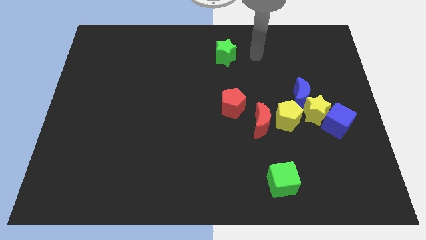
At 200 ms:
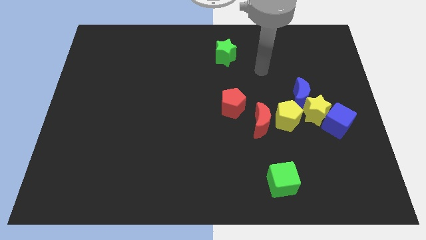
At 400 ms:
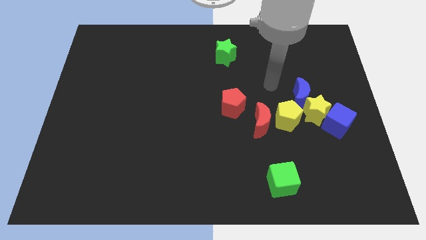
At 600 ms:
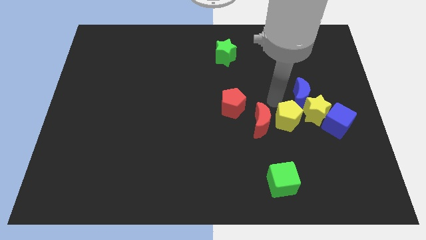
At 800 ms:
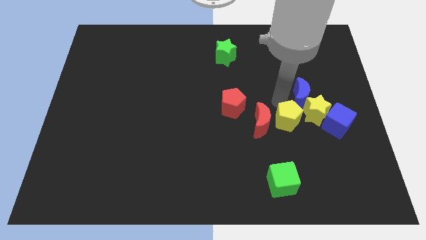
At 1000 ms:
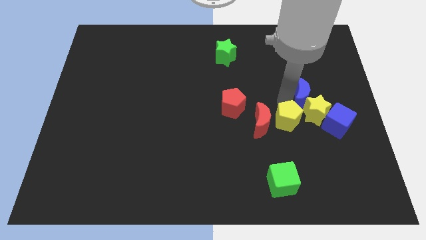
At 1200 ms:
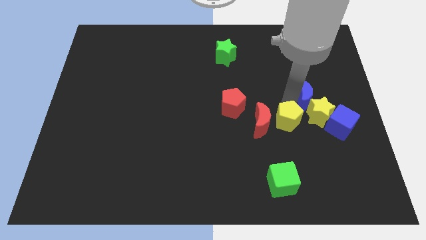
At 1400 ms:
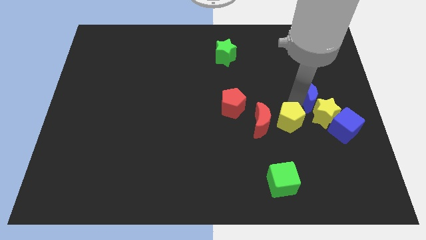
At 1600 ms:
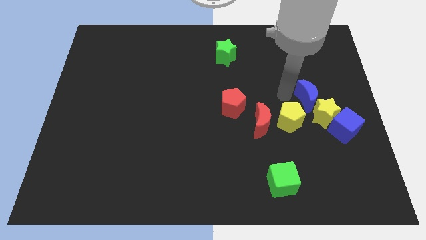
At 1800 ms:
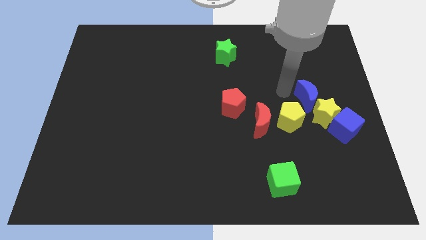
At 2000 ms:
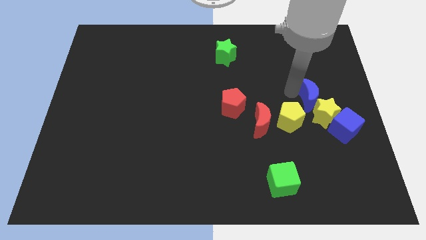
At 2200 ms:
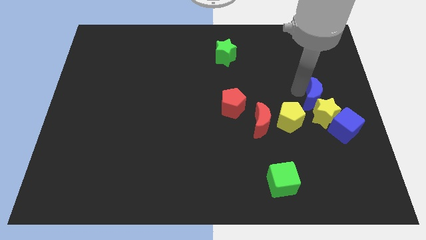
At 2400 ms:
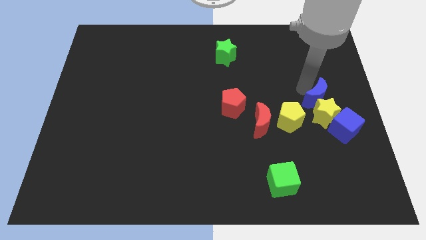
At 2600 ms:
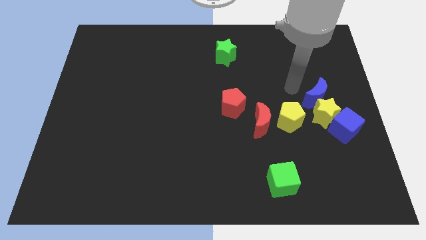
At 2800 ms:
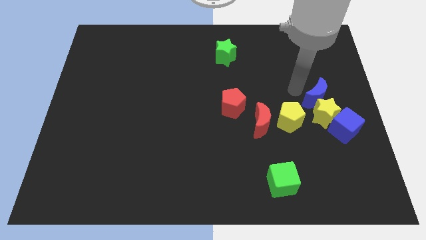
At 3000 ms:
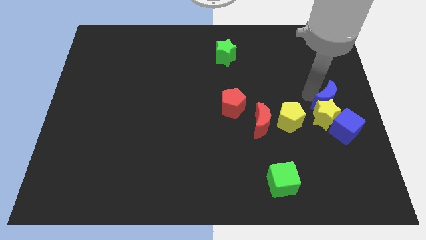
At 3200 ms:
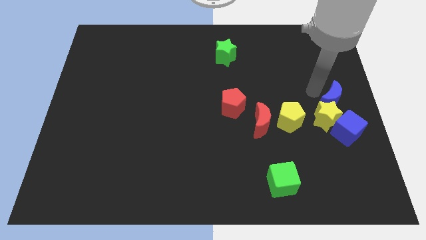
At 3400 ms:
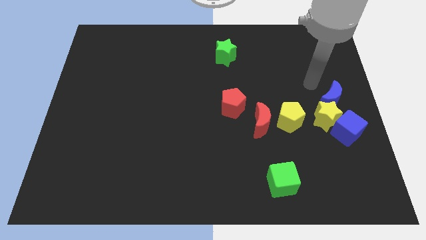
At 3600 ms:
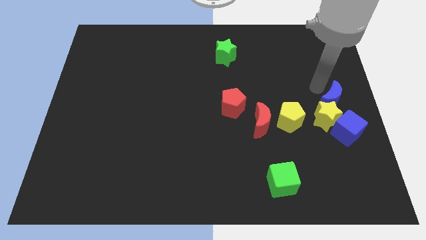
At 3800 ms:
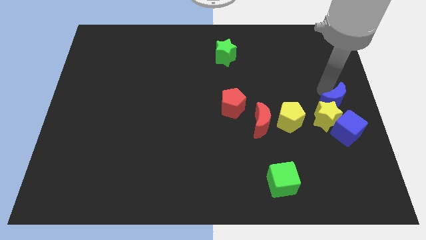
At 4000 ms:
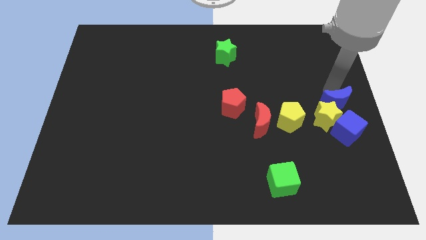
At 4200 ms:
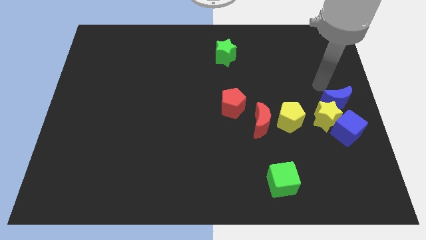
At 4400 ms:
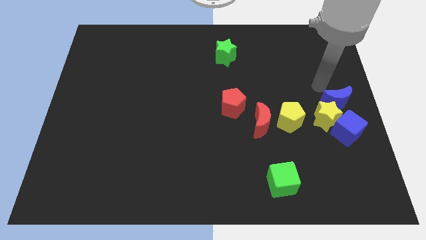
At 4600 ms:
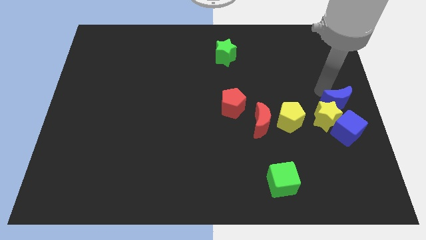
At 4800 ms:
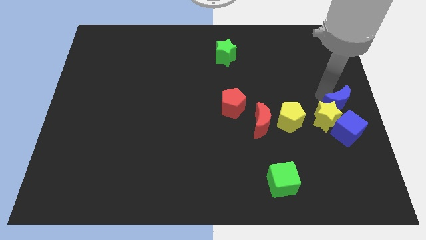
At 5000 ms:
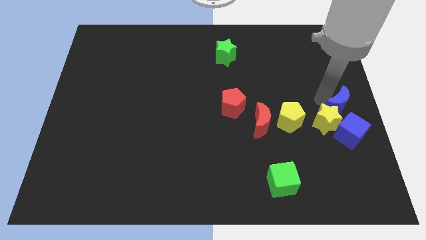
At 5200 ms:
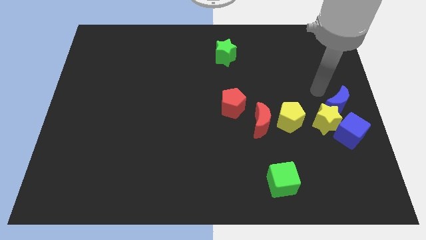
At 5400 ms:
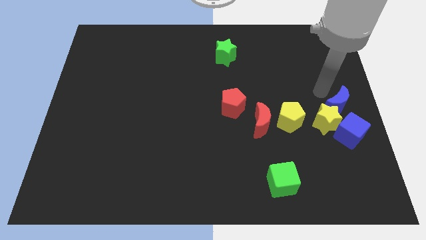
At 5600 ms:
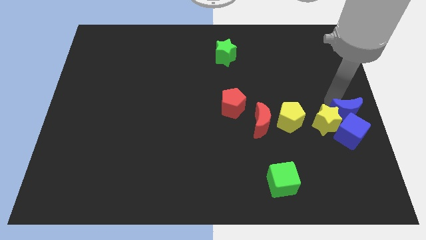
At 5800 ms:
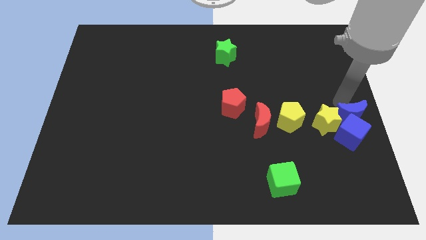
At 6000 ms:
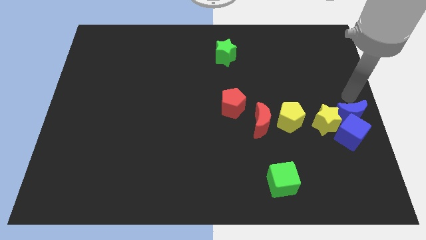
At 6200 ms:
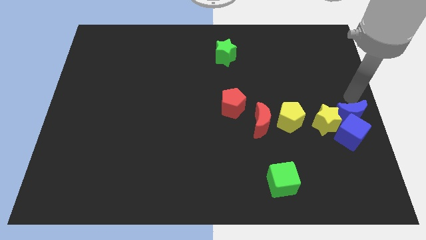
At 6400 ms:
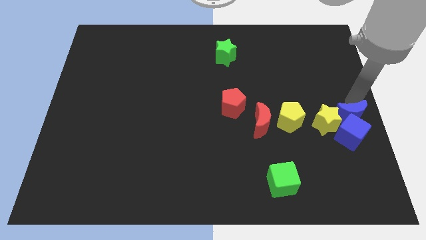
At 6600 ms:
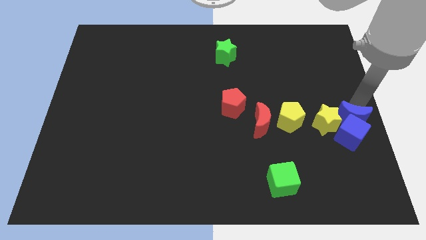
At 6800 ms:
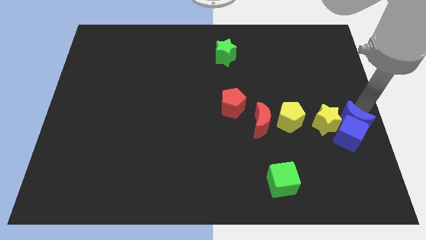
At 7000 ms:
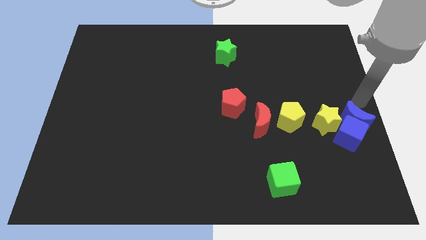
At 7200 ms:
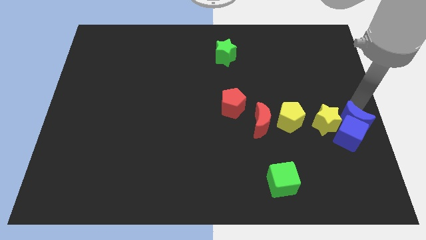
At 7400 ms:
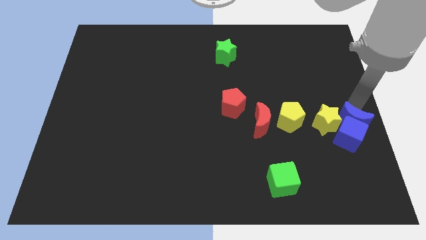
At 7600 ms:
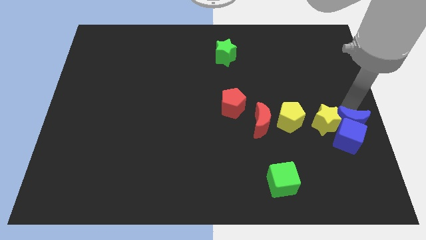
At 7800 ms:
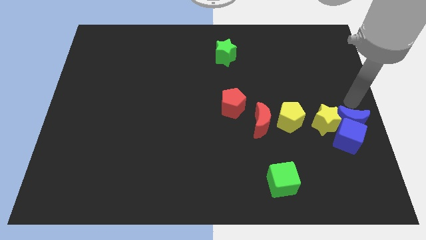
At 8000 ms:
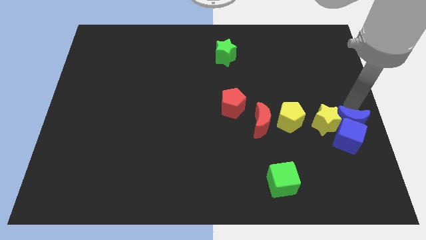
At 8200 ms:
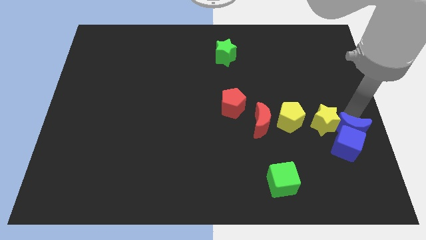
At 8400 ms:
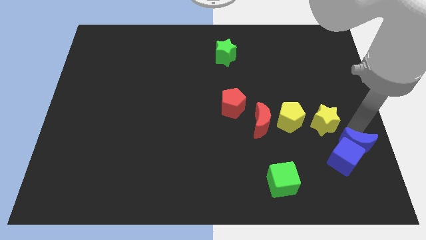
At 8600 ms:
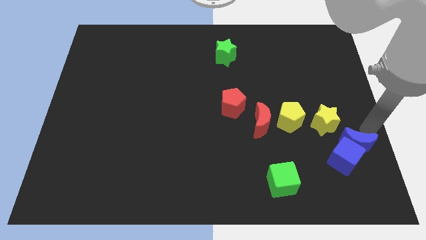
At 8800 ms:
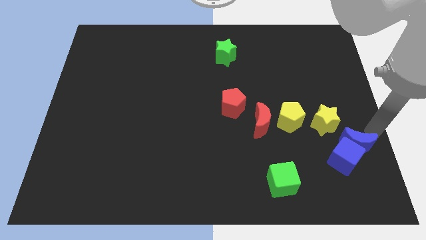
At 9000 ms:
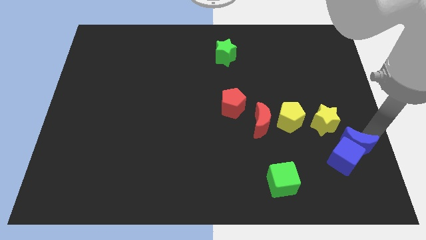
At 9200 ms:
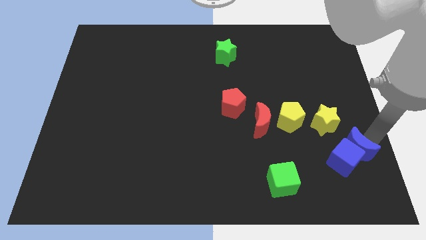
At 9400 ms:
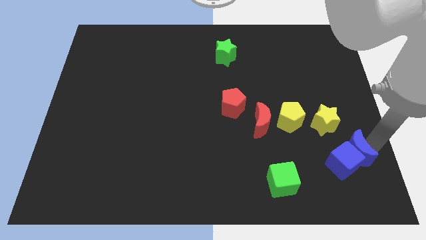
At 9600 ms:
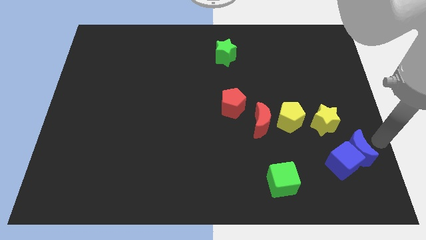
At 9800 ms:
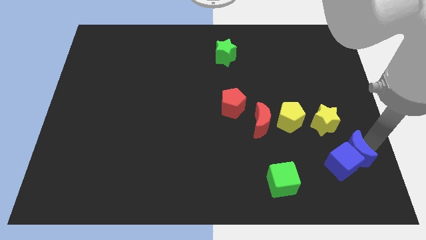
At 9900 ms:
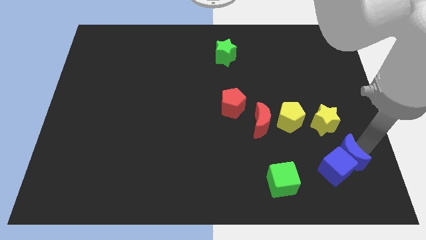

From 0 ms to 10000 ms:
slide the blue moon to the bottom of the yellow star

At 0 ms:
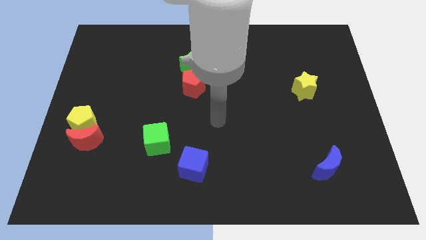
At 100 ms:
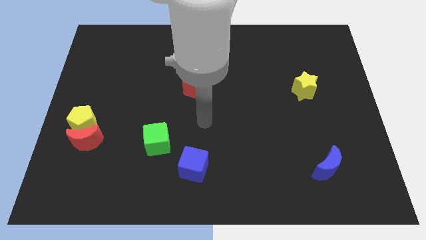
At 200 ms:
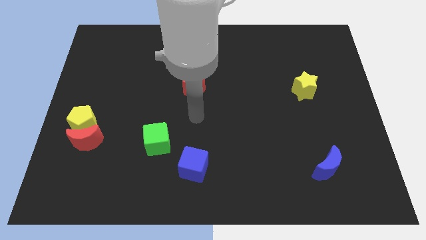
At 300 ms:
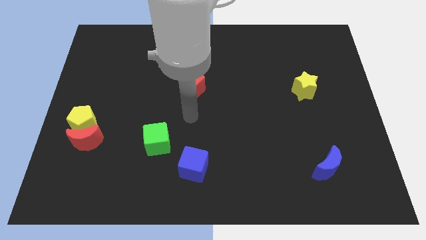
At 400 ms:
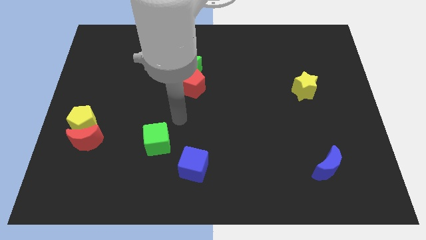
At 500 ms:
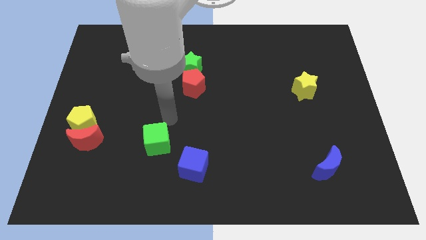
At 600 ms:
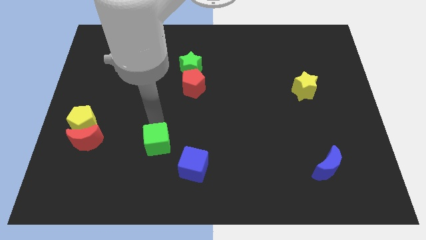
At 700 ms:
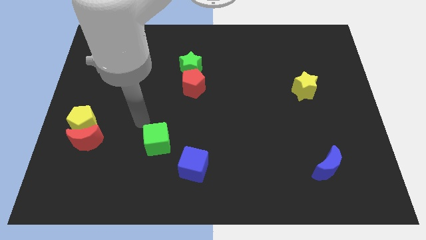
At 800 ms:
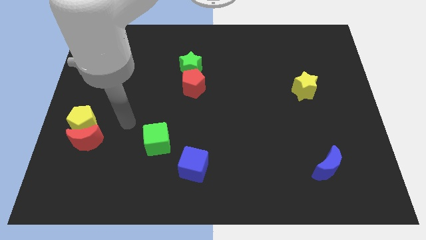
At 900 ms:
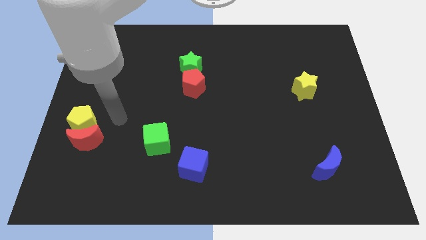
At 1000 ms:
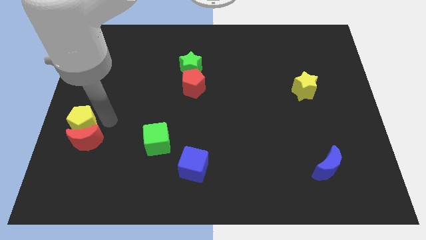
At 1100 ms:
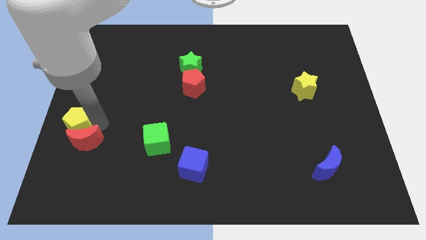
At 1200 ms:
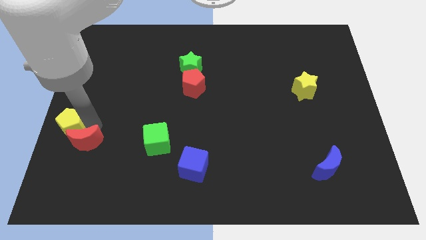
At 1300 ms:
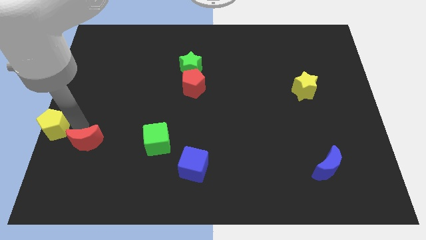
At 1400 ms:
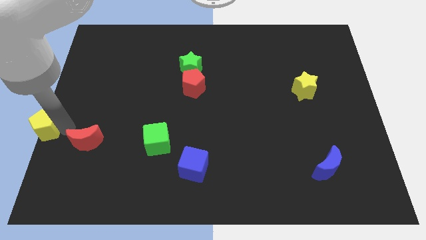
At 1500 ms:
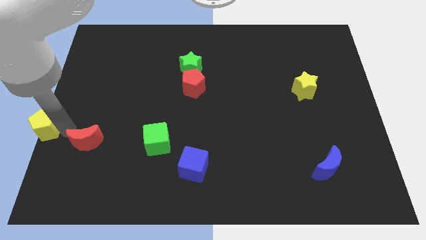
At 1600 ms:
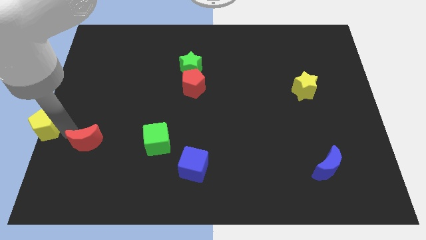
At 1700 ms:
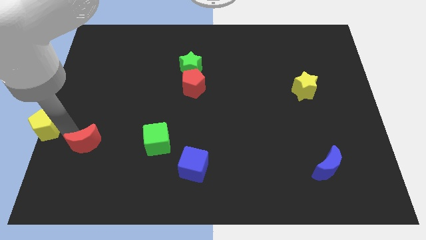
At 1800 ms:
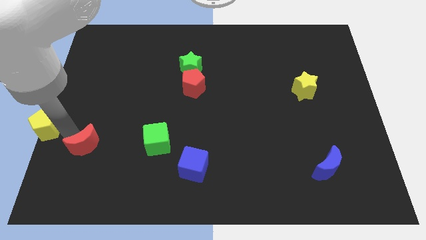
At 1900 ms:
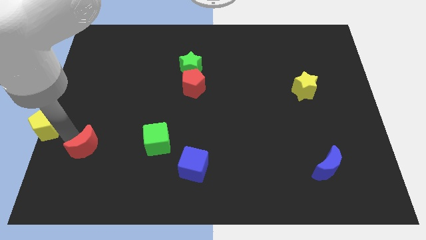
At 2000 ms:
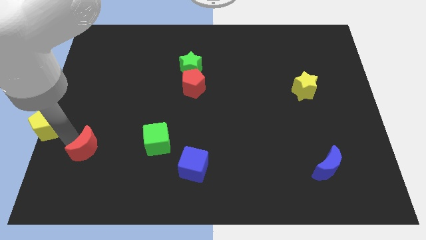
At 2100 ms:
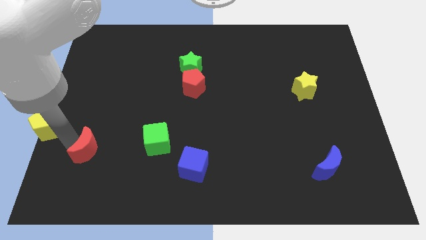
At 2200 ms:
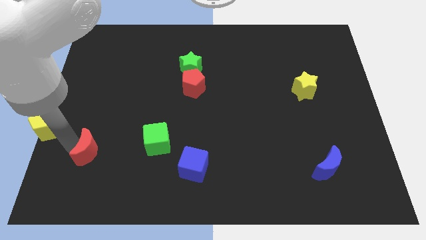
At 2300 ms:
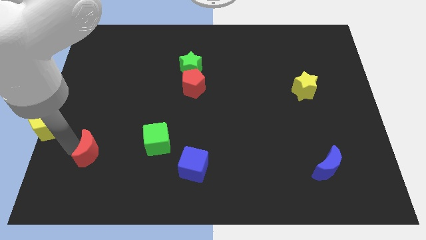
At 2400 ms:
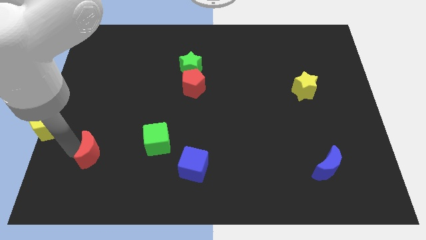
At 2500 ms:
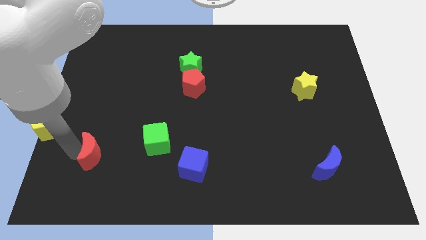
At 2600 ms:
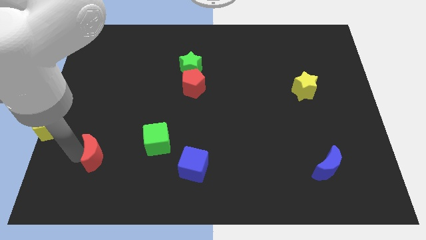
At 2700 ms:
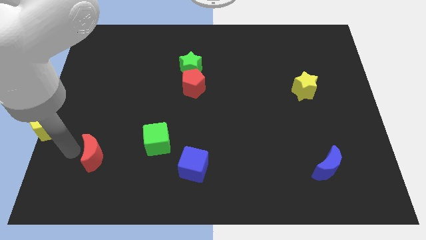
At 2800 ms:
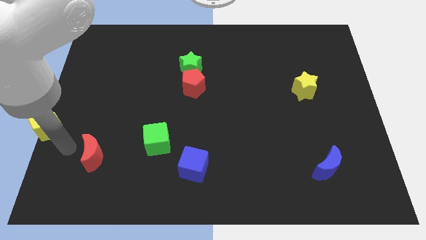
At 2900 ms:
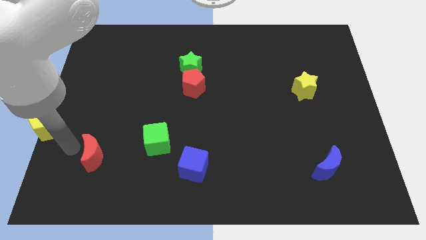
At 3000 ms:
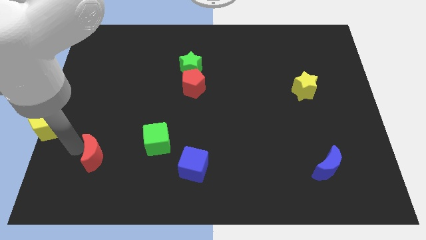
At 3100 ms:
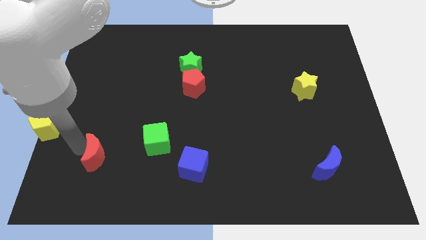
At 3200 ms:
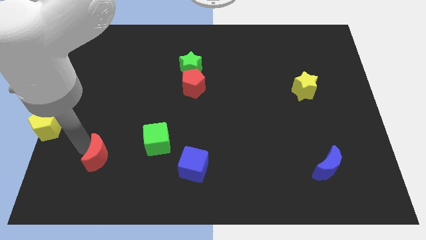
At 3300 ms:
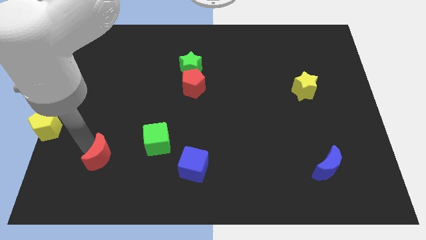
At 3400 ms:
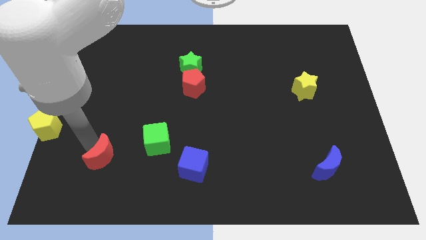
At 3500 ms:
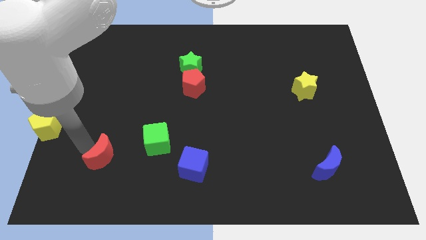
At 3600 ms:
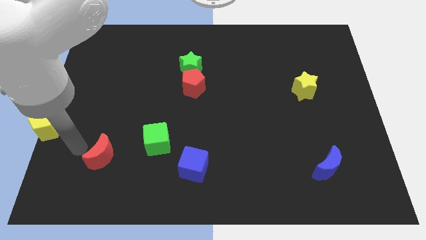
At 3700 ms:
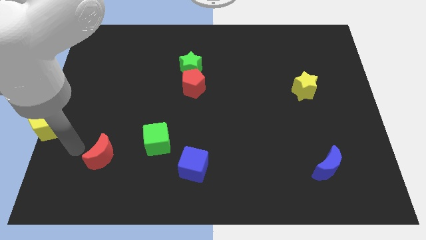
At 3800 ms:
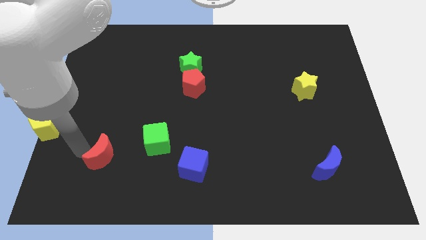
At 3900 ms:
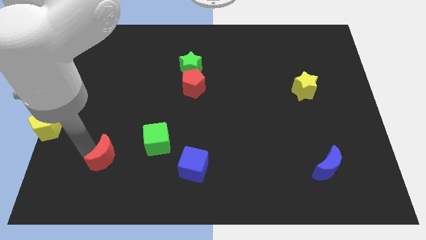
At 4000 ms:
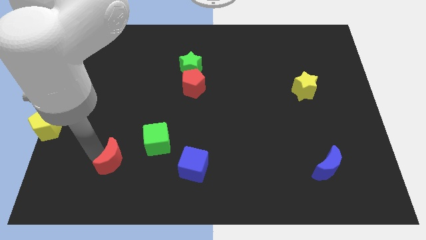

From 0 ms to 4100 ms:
push the red moon to the bottom left of the green cube
